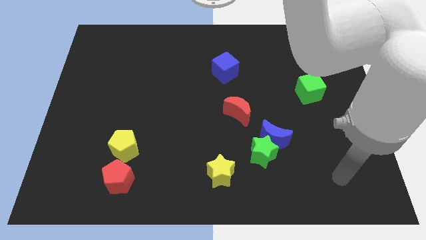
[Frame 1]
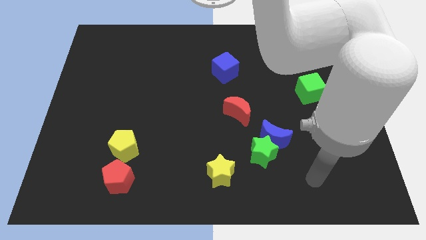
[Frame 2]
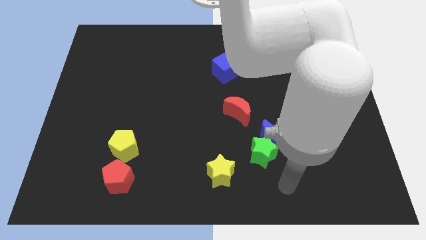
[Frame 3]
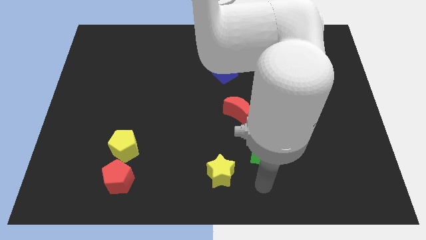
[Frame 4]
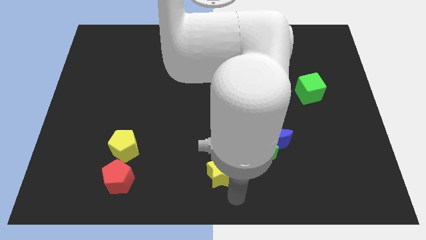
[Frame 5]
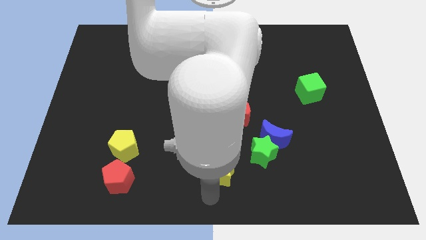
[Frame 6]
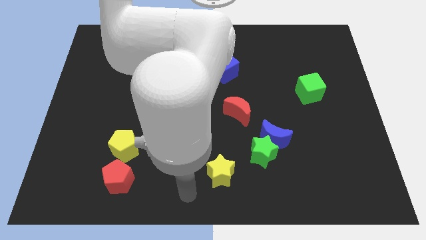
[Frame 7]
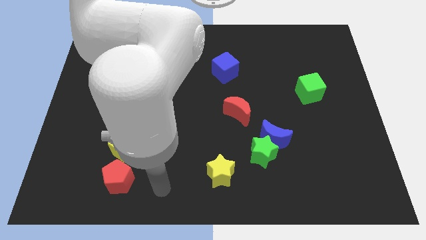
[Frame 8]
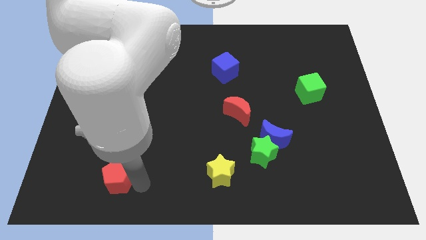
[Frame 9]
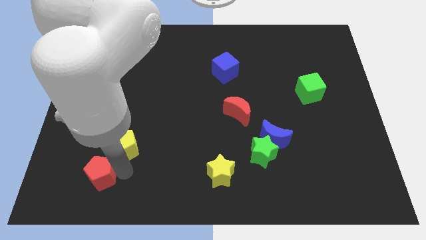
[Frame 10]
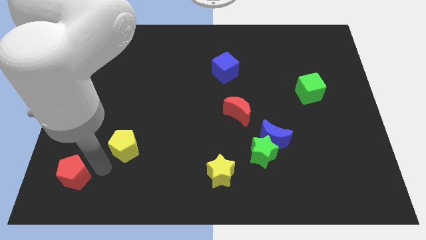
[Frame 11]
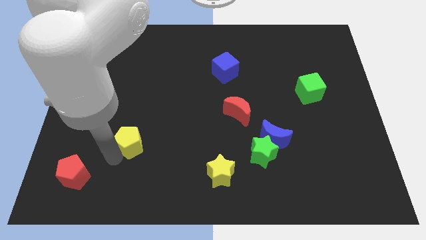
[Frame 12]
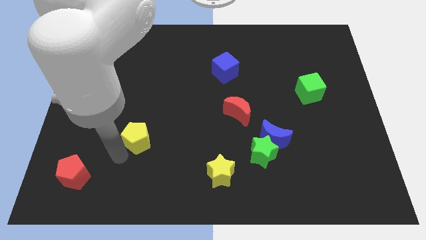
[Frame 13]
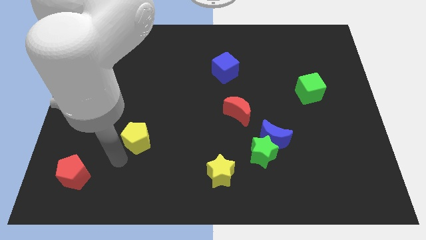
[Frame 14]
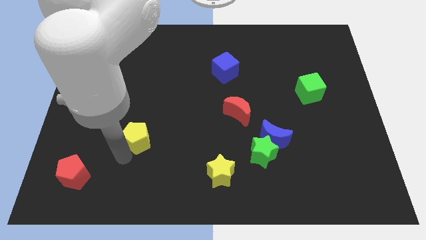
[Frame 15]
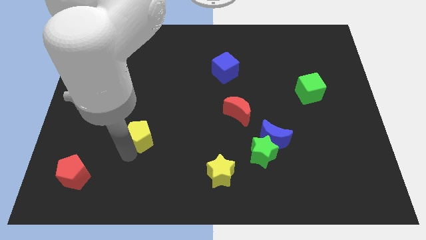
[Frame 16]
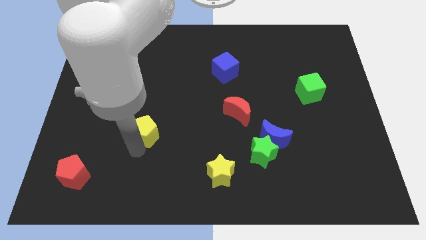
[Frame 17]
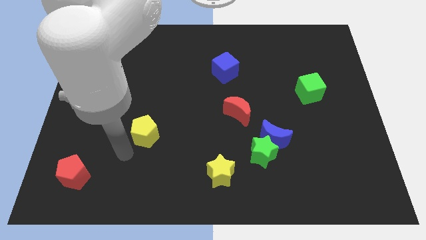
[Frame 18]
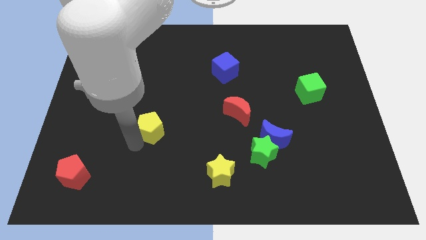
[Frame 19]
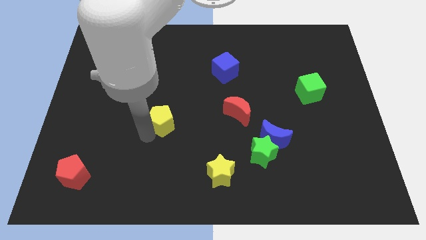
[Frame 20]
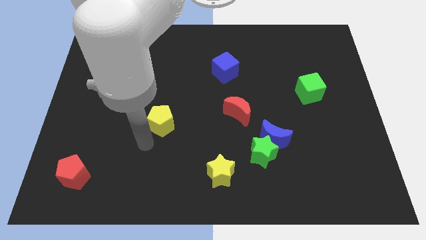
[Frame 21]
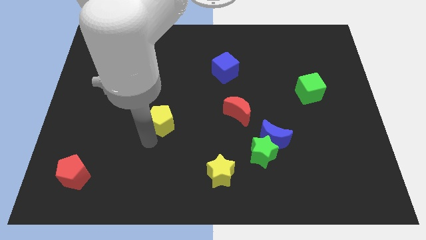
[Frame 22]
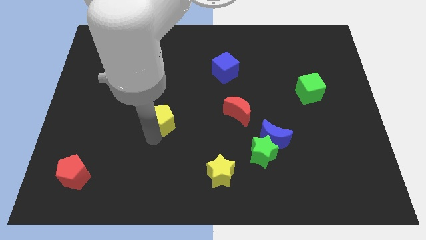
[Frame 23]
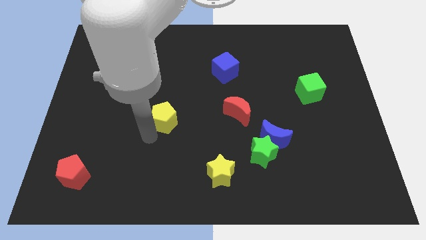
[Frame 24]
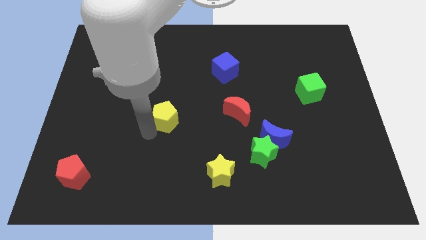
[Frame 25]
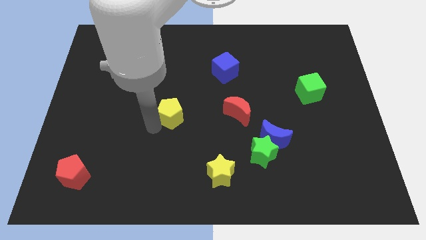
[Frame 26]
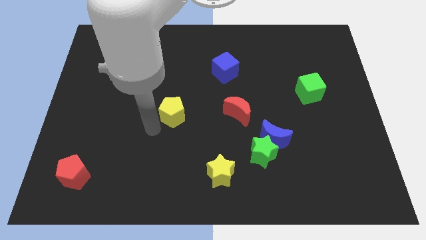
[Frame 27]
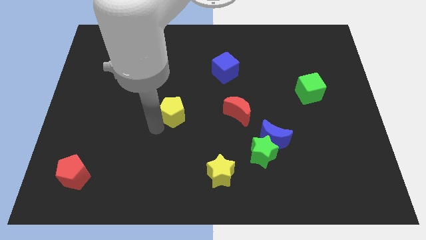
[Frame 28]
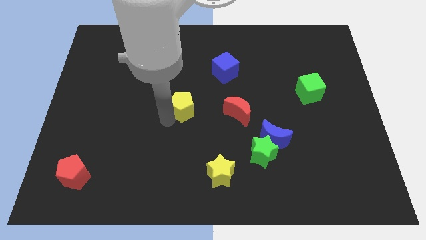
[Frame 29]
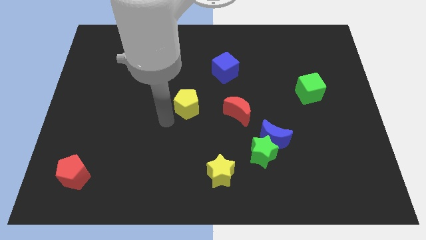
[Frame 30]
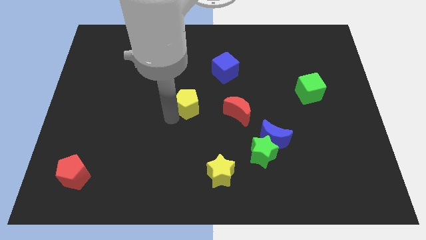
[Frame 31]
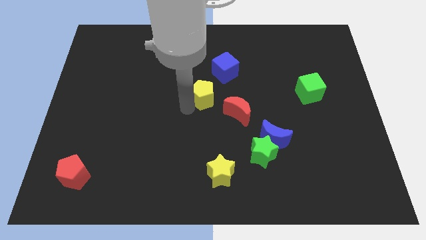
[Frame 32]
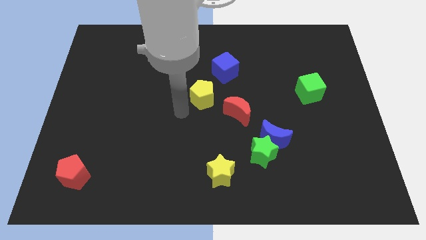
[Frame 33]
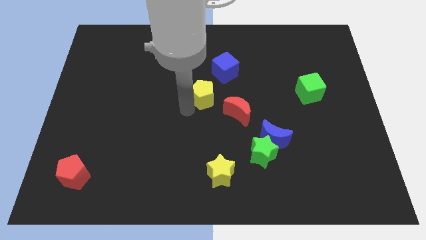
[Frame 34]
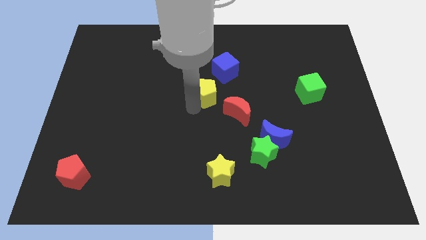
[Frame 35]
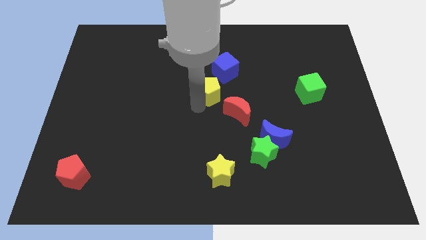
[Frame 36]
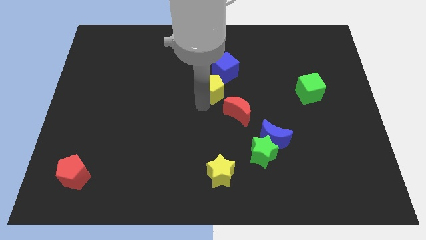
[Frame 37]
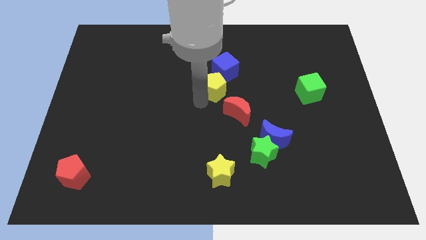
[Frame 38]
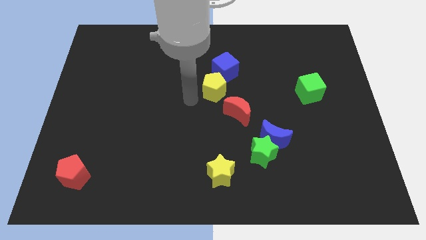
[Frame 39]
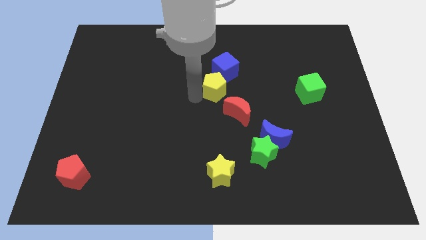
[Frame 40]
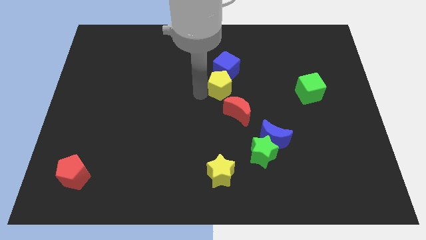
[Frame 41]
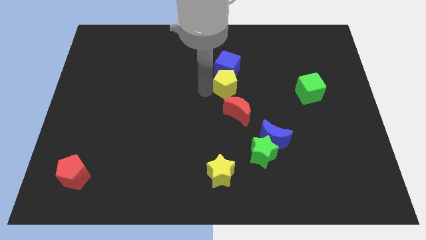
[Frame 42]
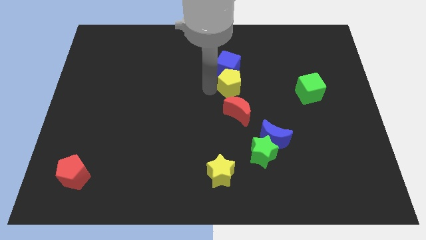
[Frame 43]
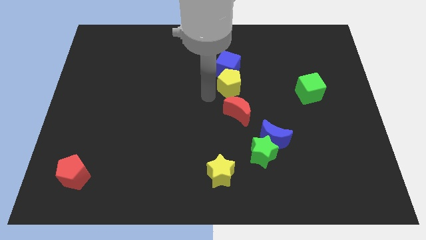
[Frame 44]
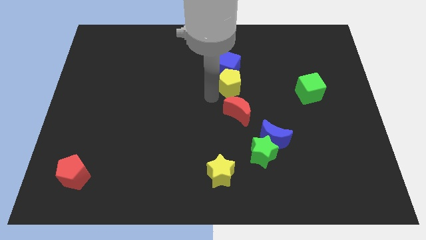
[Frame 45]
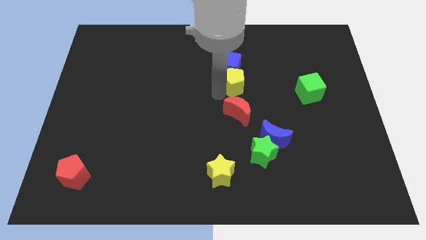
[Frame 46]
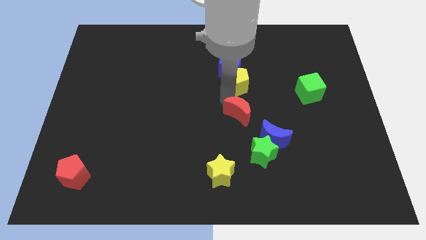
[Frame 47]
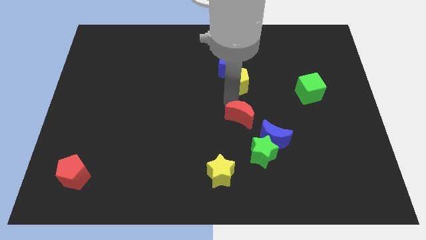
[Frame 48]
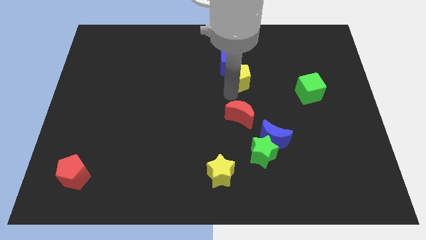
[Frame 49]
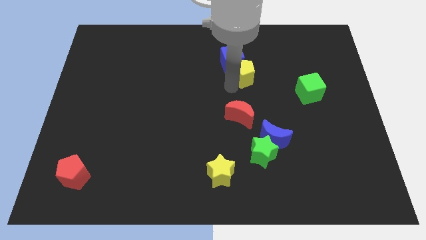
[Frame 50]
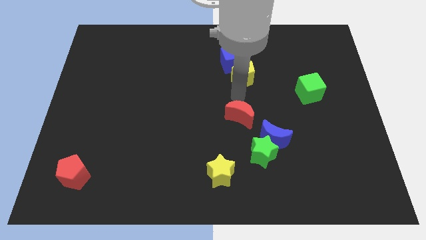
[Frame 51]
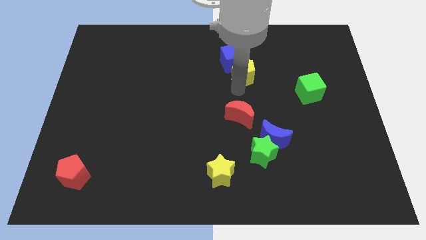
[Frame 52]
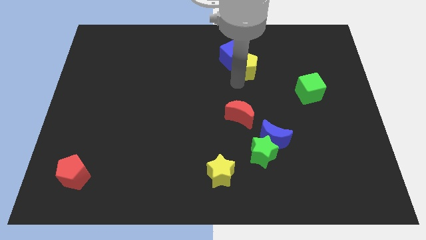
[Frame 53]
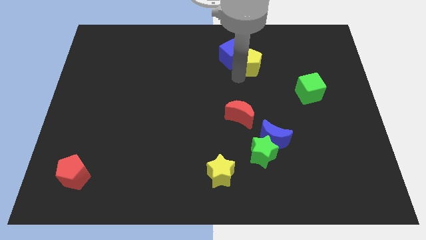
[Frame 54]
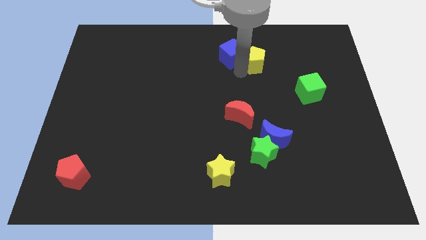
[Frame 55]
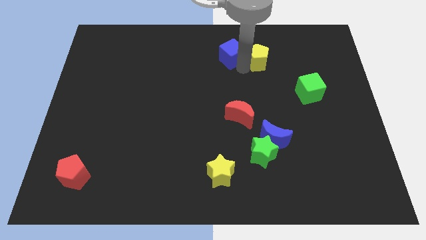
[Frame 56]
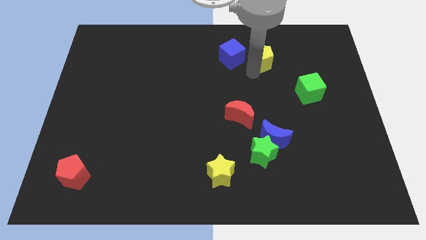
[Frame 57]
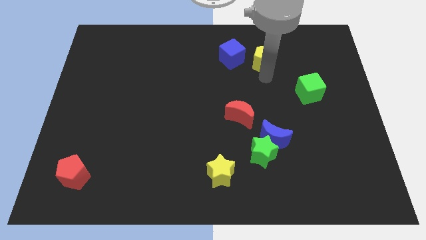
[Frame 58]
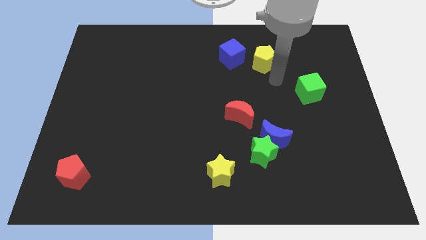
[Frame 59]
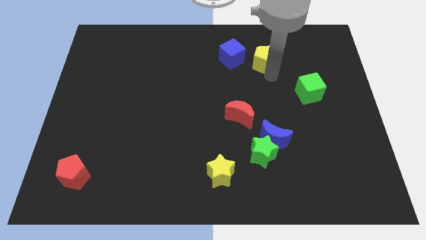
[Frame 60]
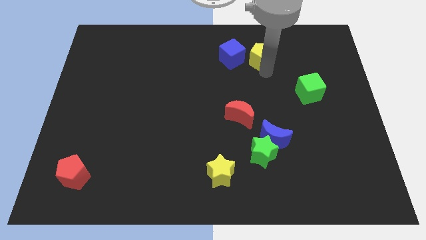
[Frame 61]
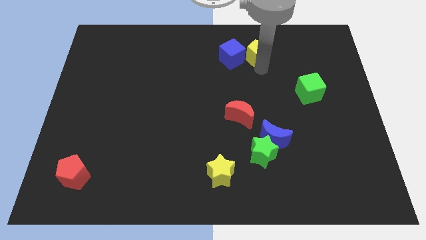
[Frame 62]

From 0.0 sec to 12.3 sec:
put the yellow pentagon to the top right of the blue cube

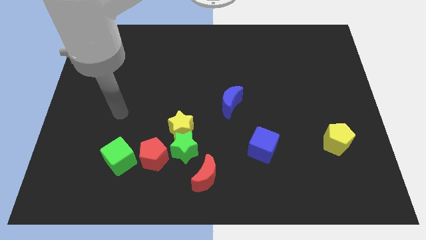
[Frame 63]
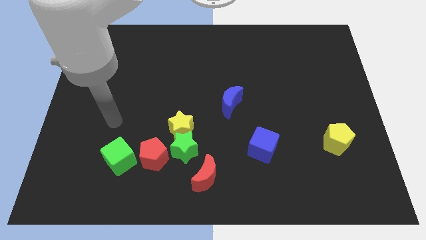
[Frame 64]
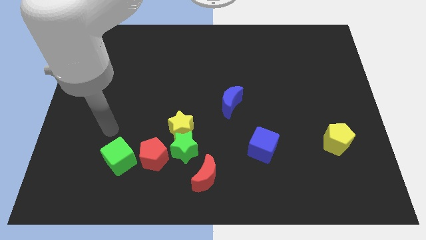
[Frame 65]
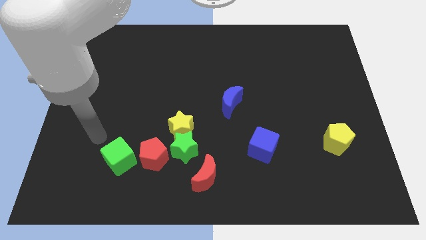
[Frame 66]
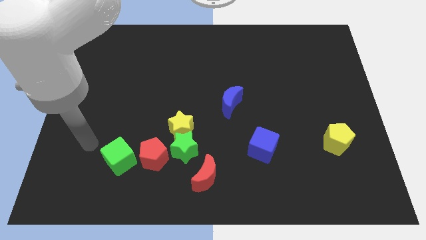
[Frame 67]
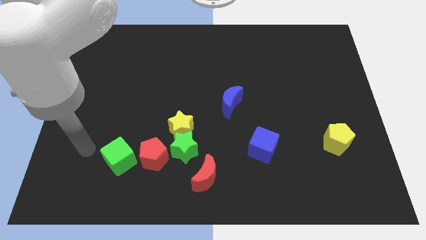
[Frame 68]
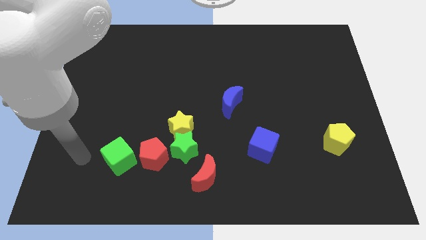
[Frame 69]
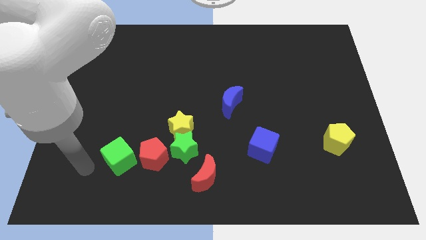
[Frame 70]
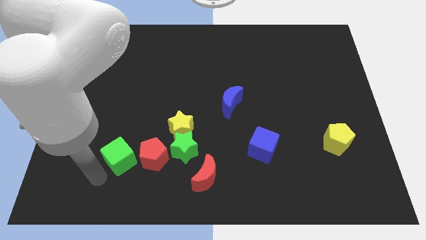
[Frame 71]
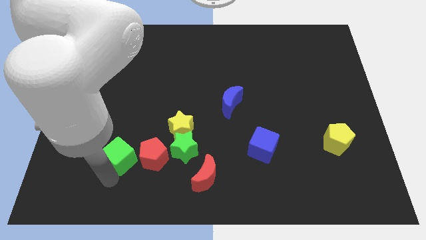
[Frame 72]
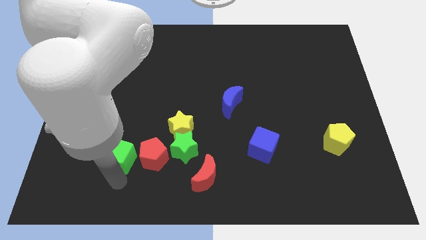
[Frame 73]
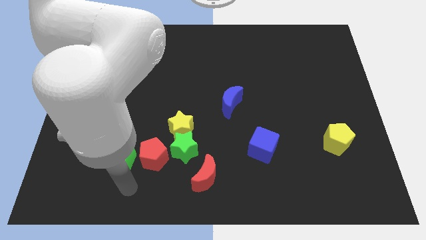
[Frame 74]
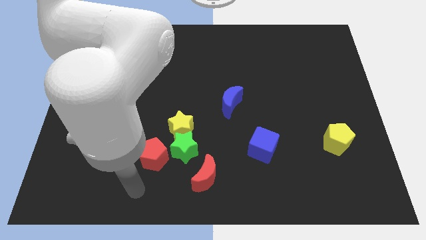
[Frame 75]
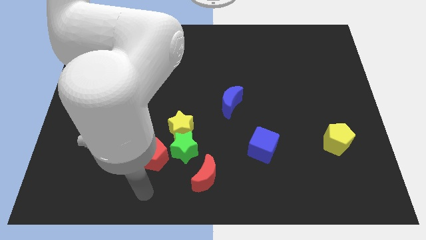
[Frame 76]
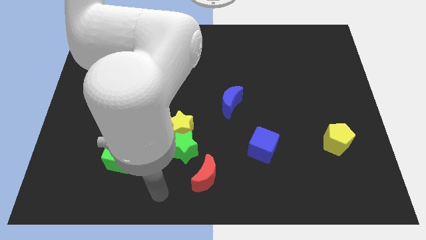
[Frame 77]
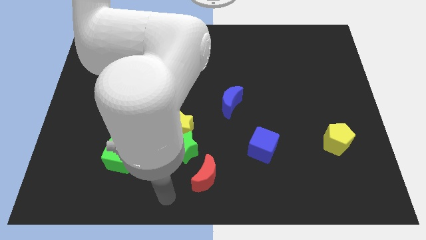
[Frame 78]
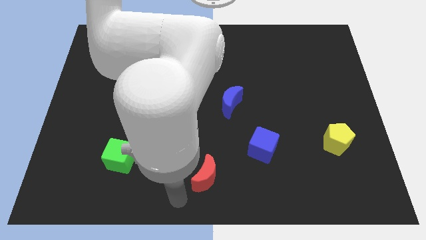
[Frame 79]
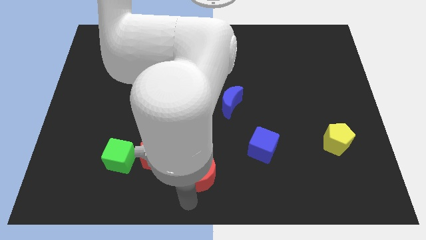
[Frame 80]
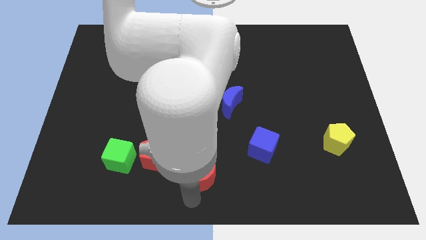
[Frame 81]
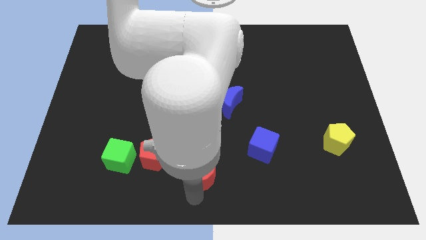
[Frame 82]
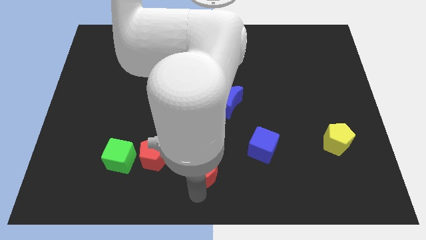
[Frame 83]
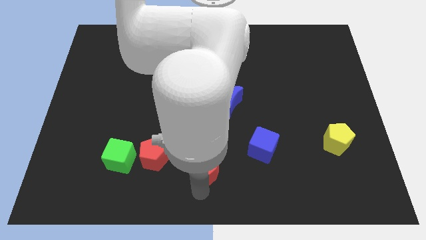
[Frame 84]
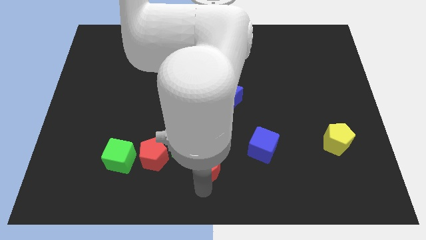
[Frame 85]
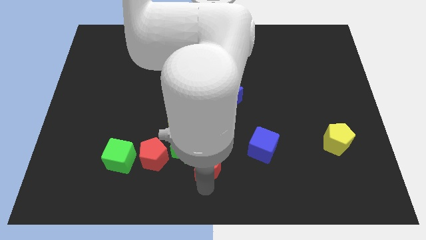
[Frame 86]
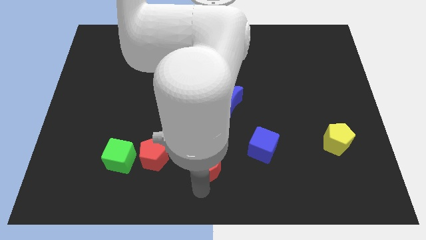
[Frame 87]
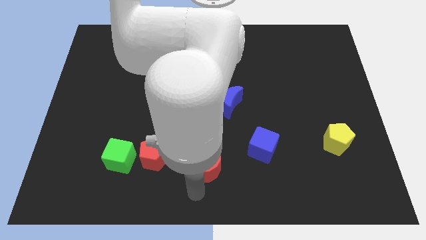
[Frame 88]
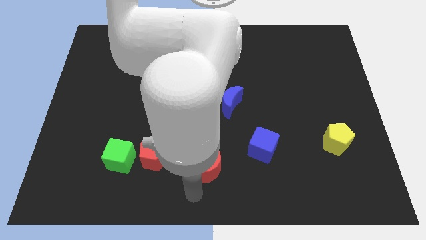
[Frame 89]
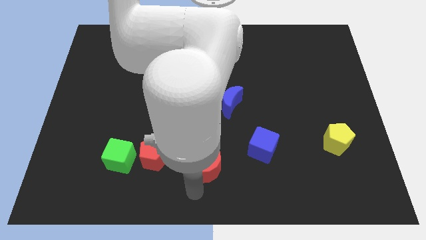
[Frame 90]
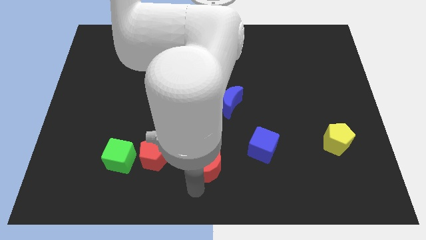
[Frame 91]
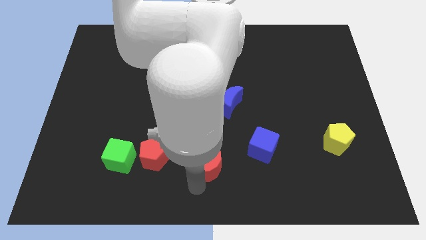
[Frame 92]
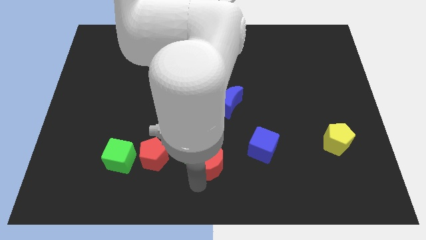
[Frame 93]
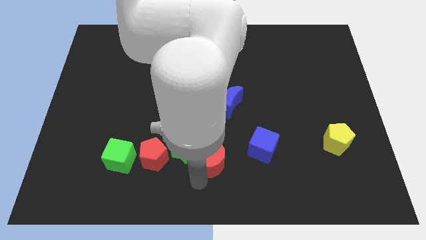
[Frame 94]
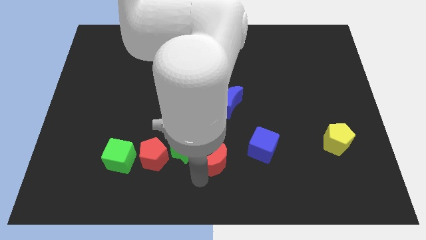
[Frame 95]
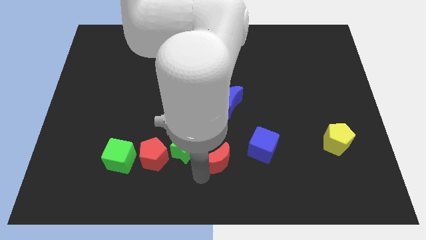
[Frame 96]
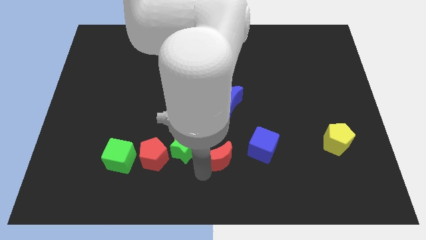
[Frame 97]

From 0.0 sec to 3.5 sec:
push the red moon to the bottom of the blue moon
